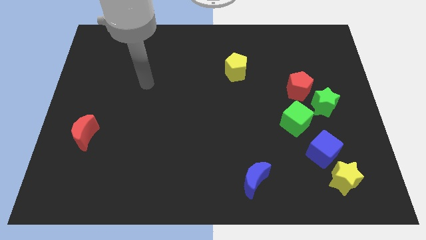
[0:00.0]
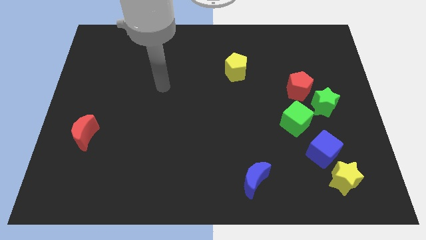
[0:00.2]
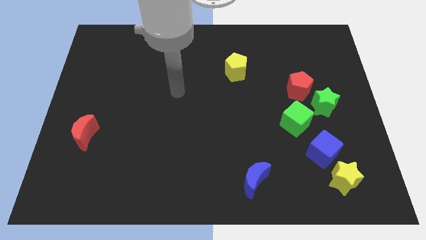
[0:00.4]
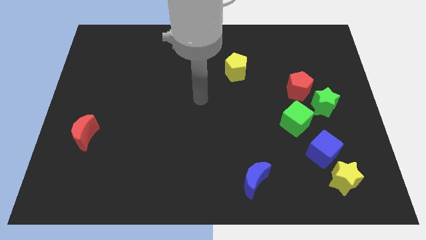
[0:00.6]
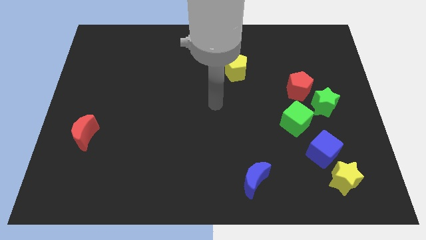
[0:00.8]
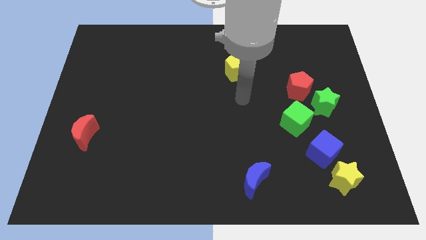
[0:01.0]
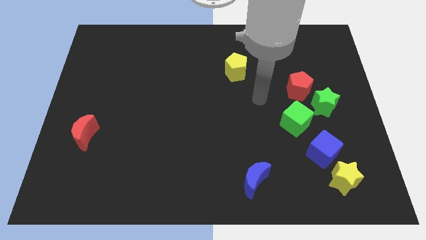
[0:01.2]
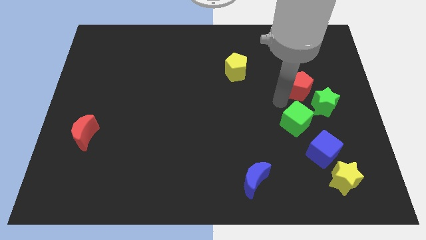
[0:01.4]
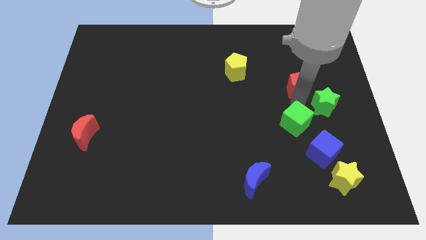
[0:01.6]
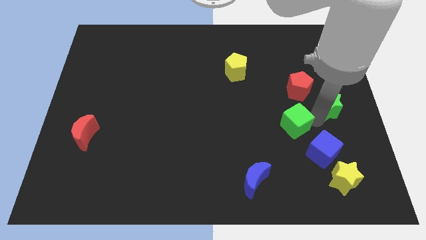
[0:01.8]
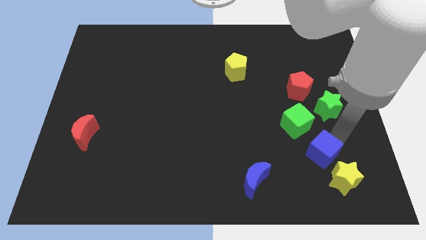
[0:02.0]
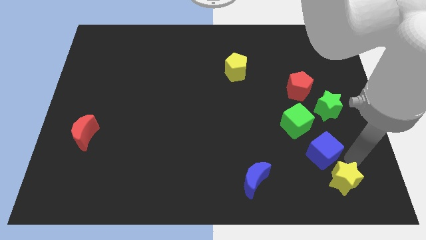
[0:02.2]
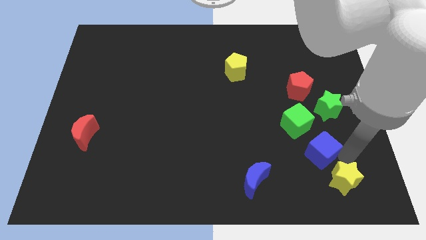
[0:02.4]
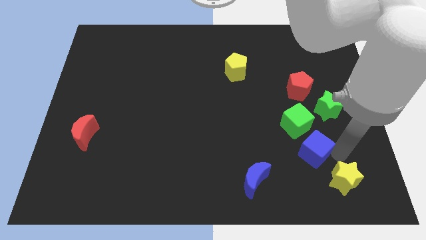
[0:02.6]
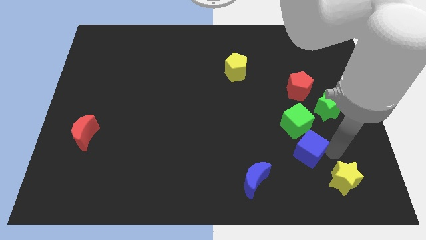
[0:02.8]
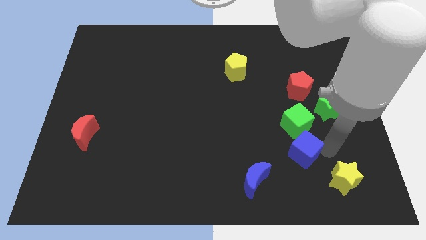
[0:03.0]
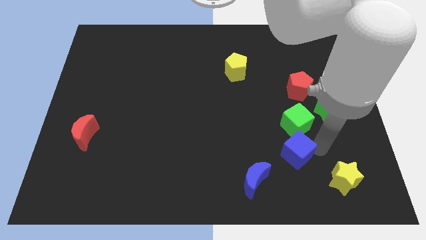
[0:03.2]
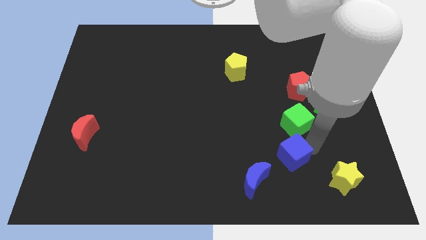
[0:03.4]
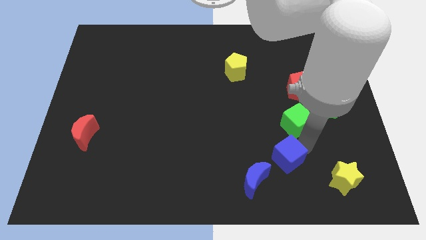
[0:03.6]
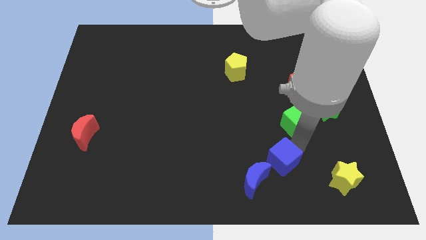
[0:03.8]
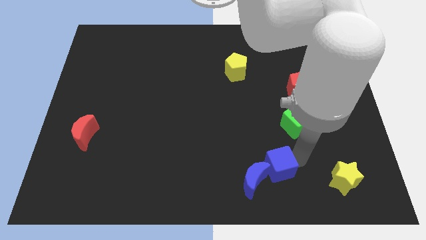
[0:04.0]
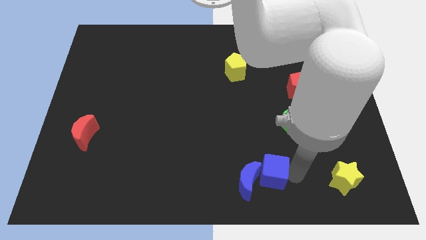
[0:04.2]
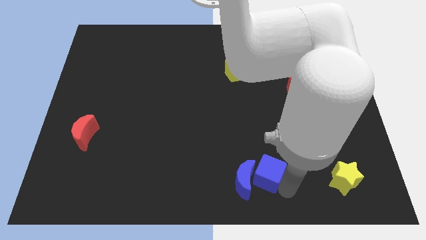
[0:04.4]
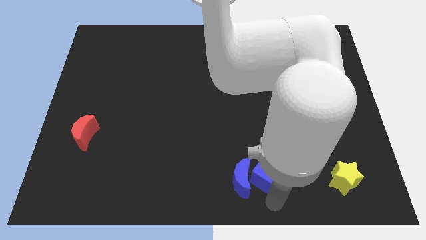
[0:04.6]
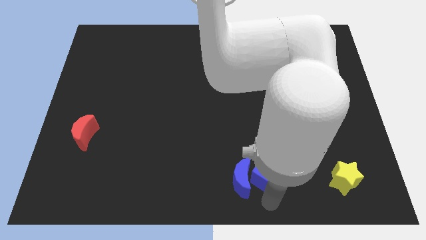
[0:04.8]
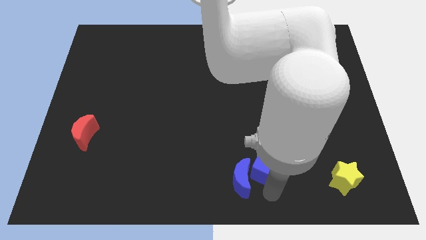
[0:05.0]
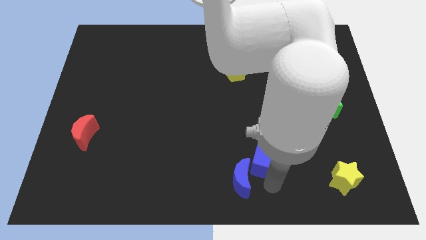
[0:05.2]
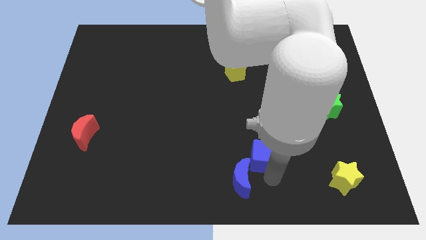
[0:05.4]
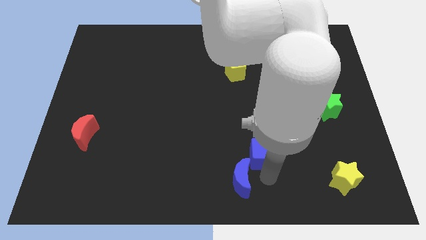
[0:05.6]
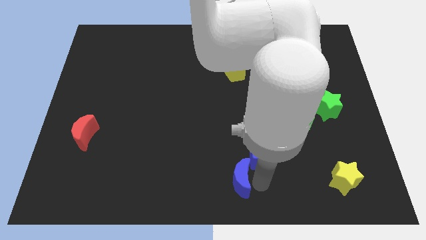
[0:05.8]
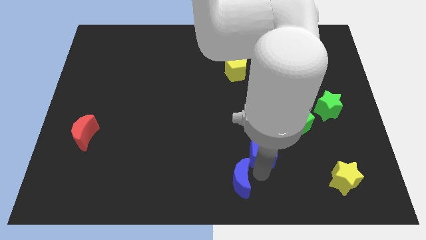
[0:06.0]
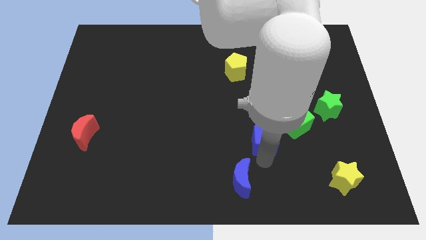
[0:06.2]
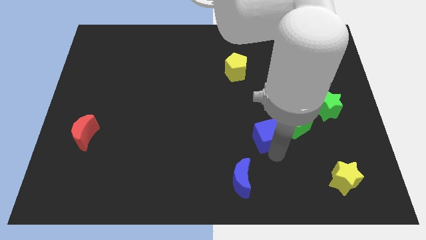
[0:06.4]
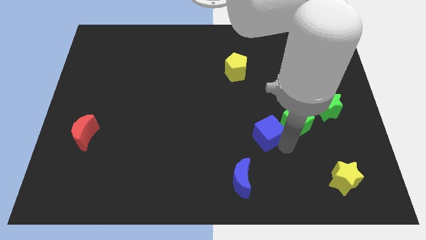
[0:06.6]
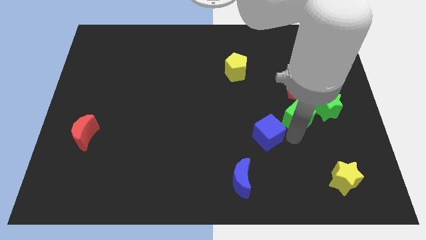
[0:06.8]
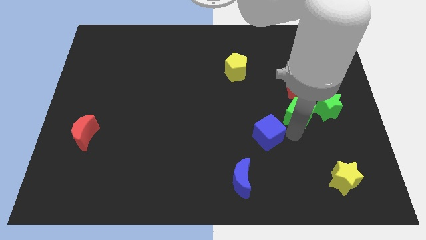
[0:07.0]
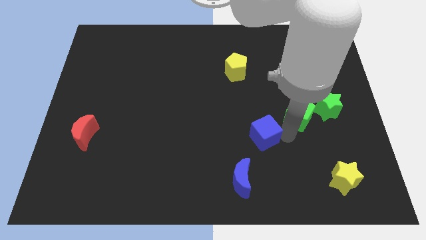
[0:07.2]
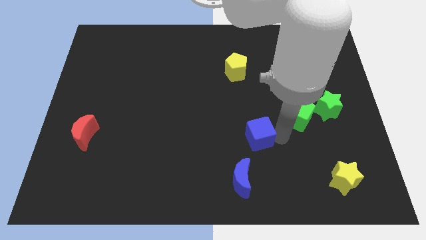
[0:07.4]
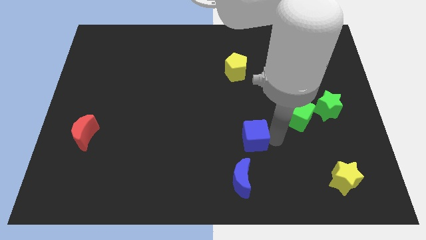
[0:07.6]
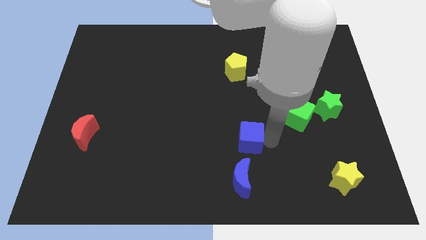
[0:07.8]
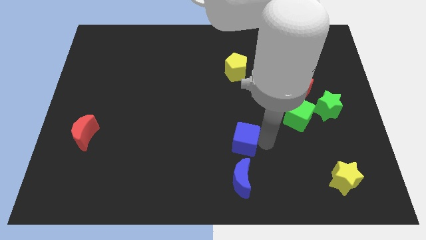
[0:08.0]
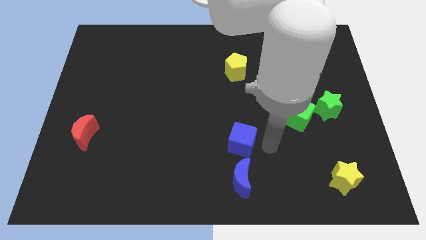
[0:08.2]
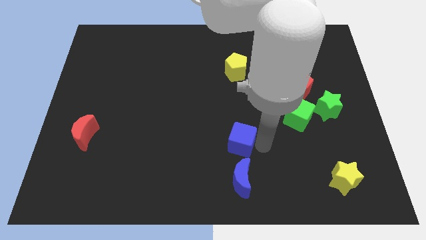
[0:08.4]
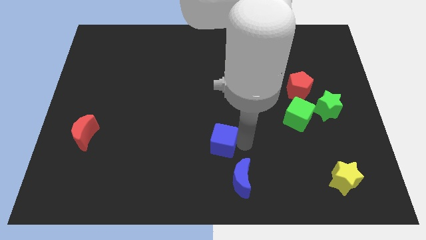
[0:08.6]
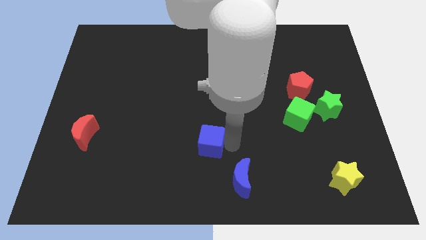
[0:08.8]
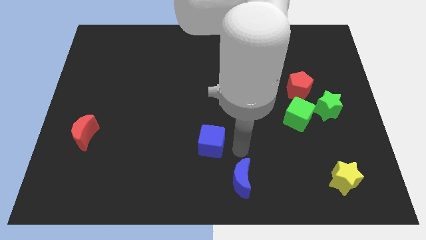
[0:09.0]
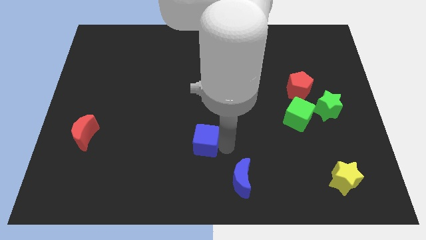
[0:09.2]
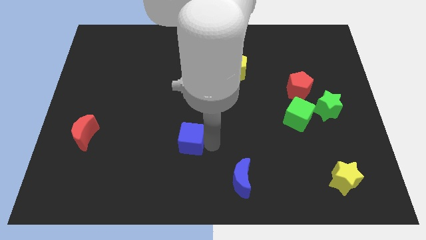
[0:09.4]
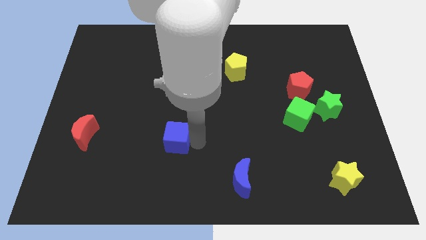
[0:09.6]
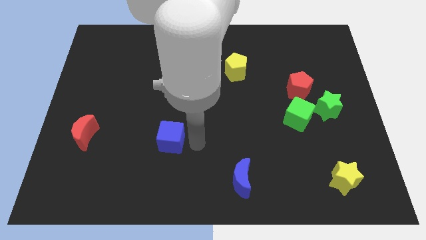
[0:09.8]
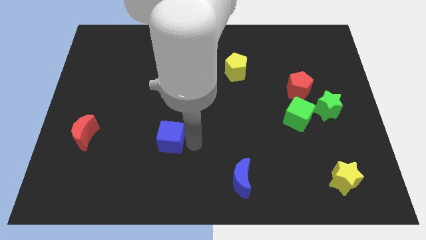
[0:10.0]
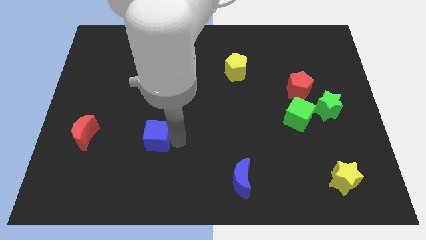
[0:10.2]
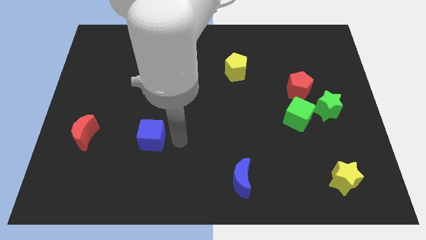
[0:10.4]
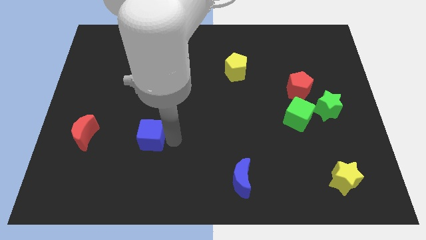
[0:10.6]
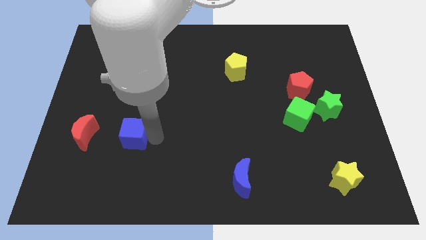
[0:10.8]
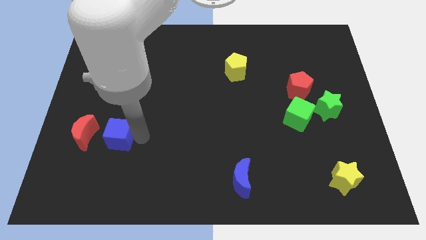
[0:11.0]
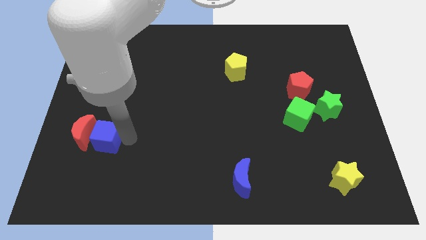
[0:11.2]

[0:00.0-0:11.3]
slide the blue cube next to the red moon

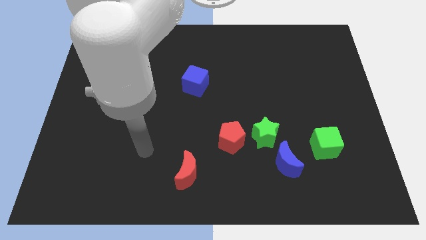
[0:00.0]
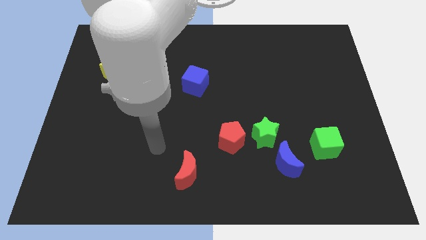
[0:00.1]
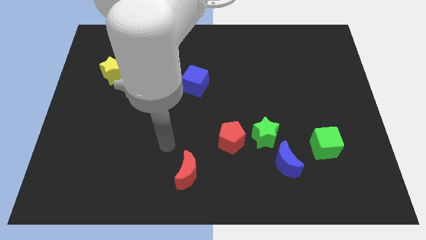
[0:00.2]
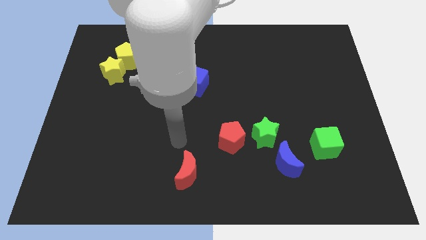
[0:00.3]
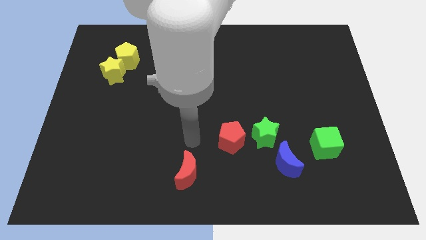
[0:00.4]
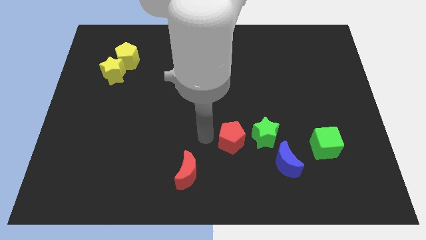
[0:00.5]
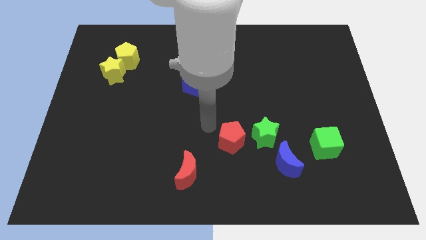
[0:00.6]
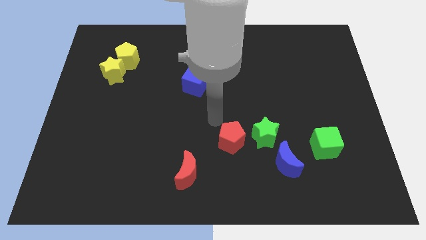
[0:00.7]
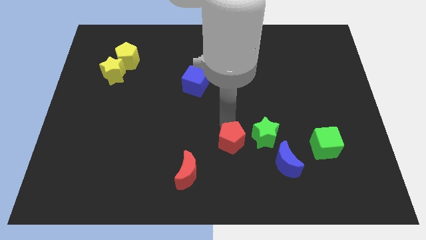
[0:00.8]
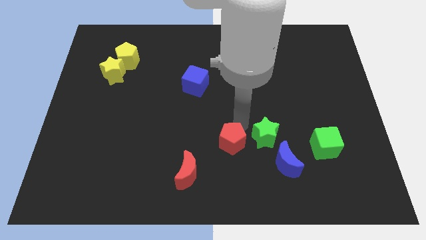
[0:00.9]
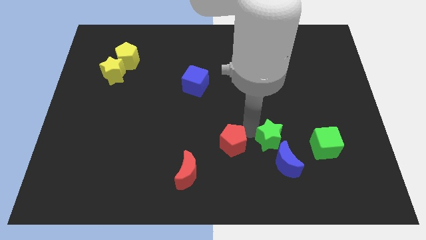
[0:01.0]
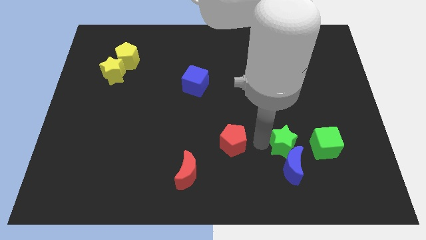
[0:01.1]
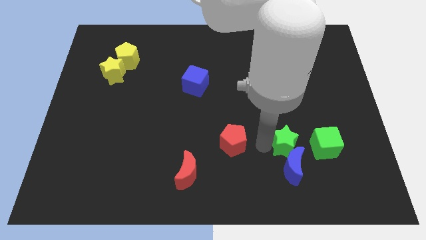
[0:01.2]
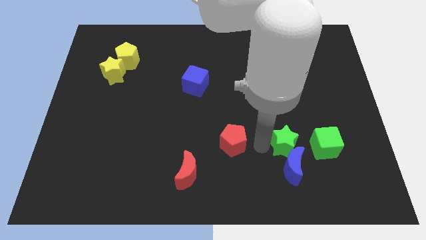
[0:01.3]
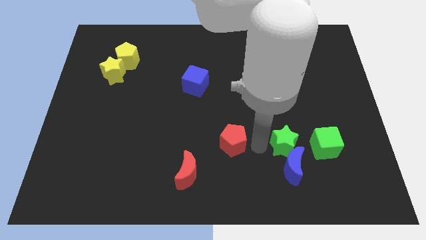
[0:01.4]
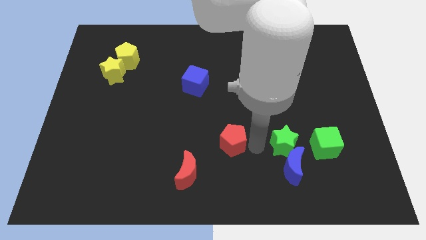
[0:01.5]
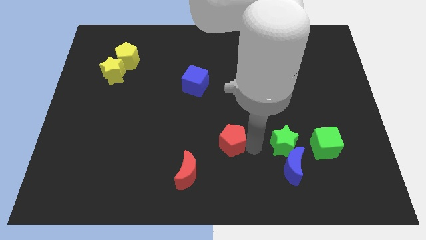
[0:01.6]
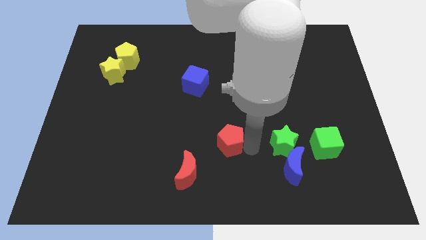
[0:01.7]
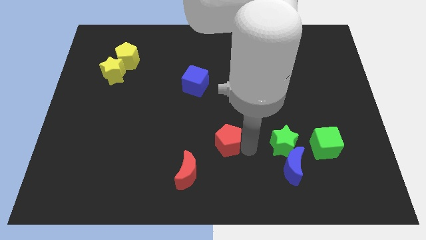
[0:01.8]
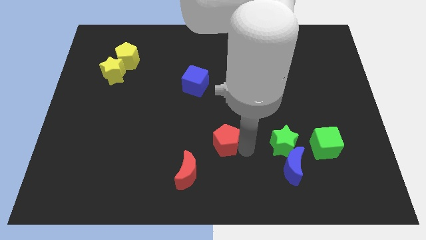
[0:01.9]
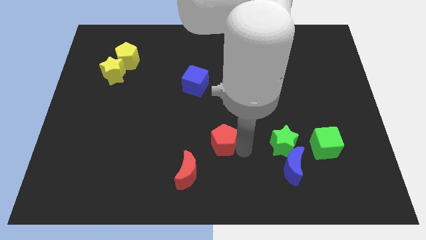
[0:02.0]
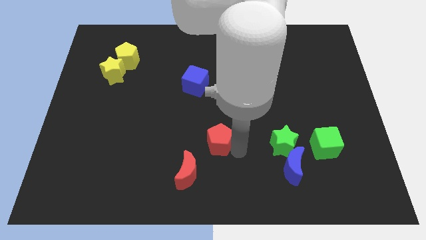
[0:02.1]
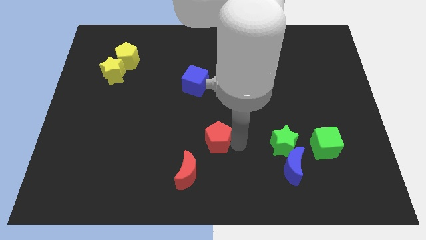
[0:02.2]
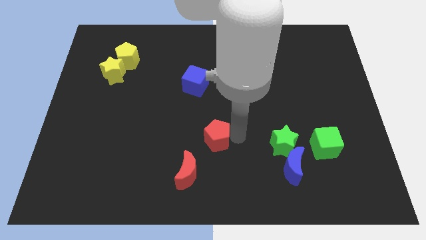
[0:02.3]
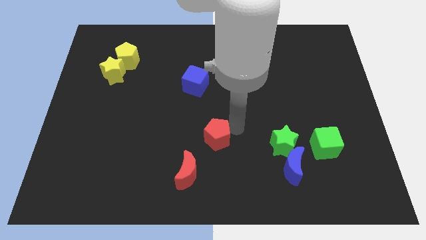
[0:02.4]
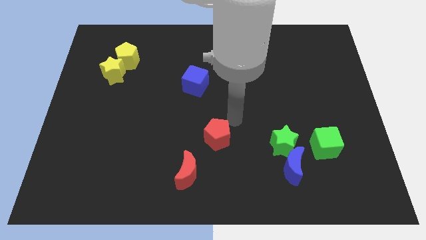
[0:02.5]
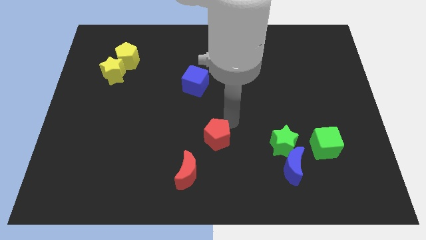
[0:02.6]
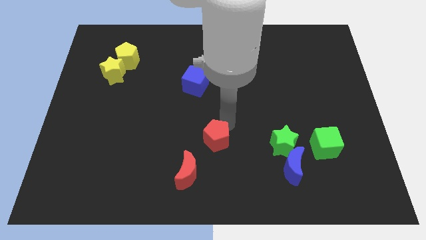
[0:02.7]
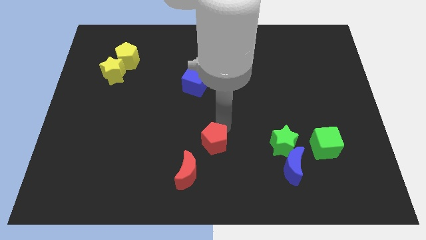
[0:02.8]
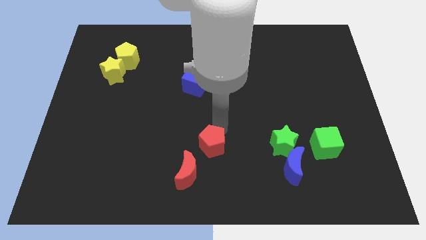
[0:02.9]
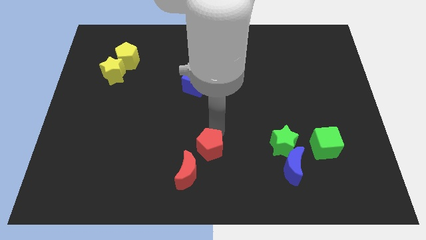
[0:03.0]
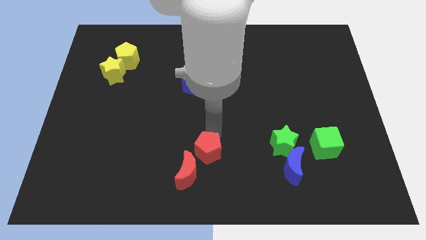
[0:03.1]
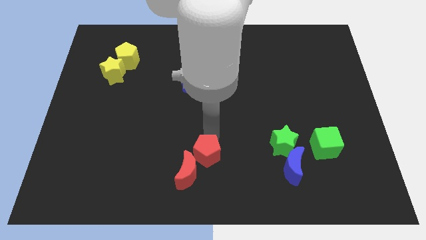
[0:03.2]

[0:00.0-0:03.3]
push the red pentagon towards the red moon
